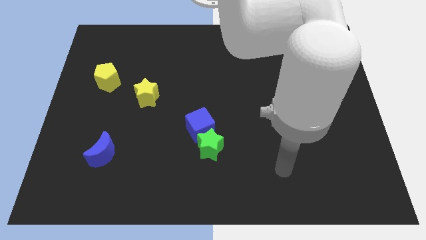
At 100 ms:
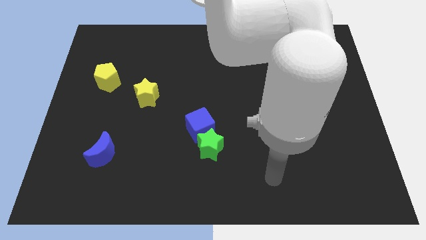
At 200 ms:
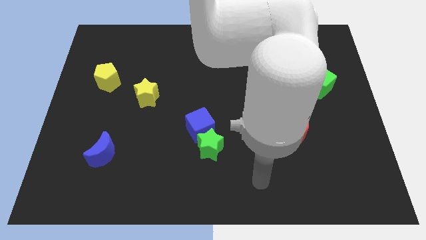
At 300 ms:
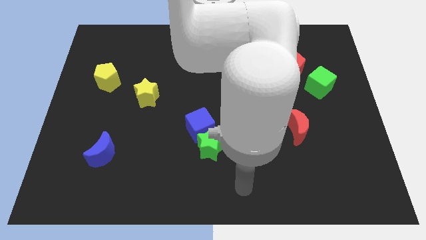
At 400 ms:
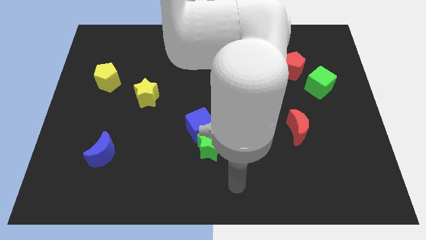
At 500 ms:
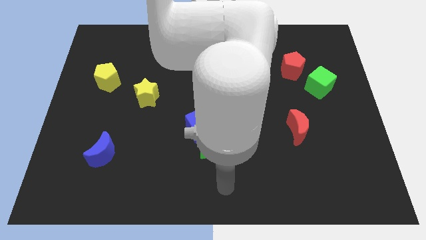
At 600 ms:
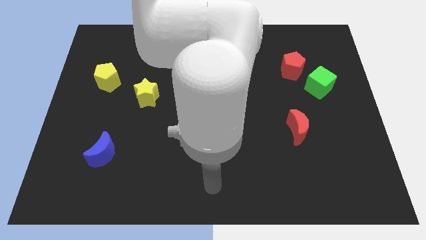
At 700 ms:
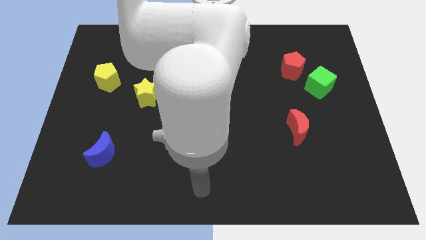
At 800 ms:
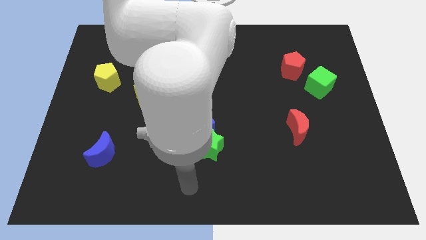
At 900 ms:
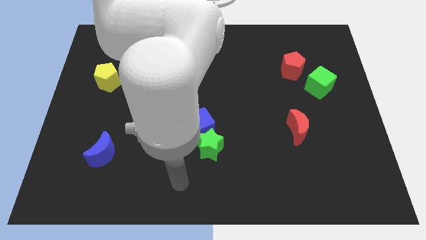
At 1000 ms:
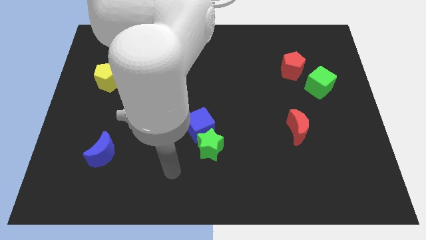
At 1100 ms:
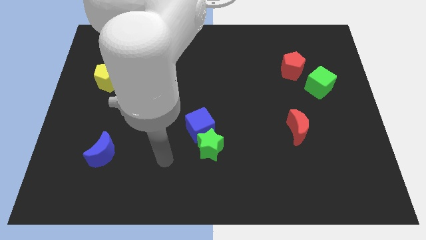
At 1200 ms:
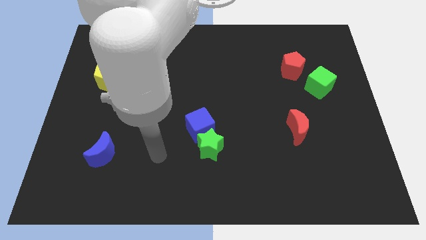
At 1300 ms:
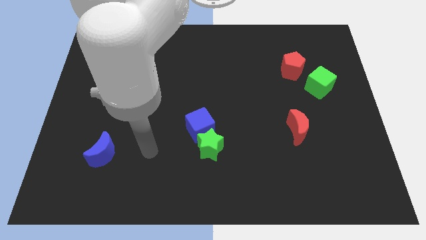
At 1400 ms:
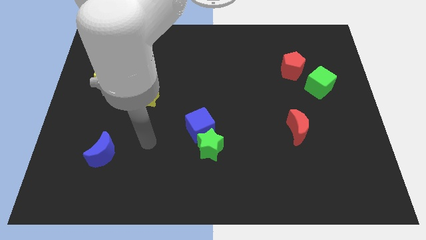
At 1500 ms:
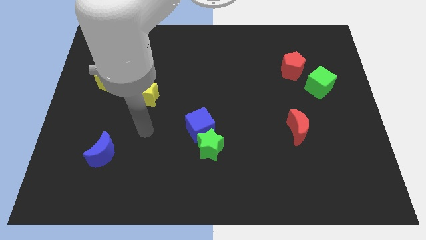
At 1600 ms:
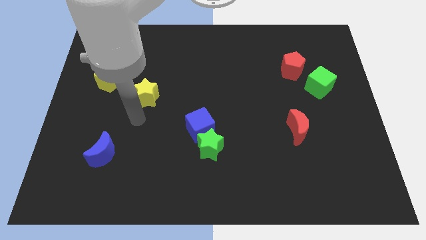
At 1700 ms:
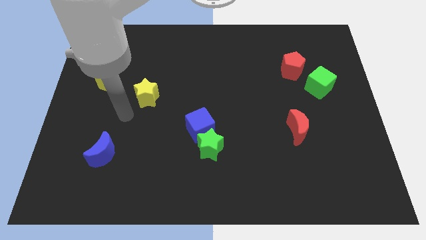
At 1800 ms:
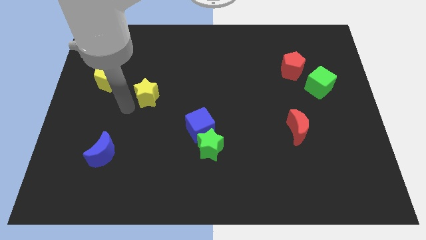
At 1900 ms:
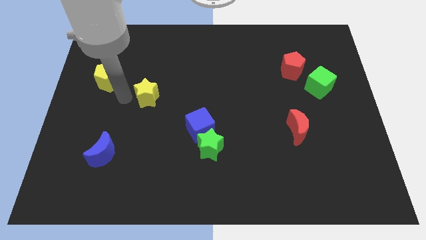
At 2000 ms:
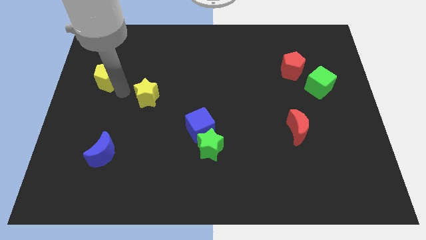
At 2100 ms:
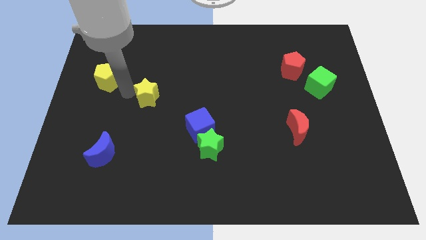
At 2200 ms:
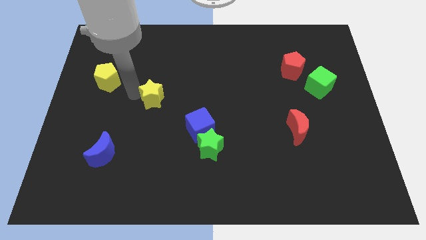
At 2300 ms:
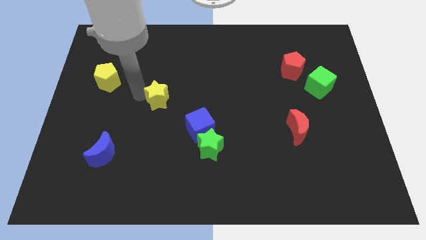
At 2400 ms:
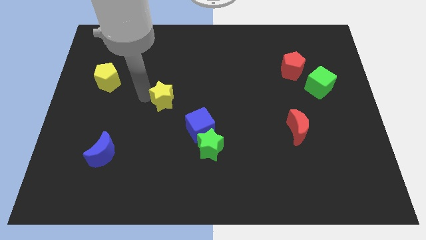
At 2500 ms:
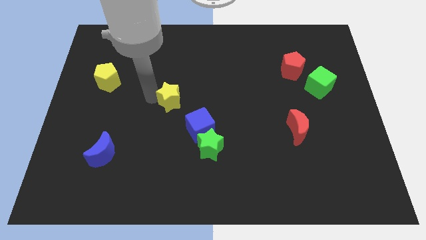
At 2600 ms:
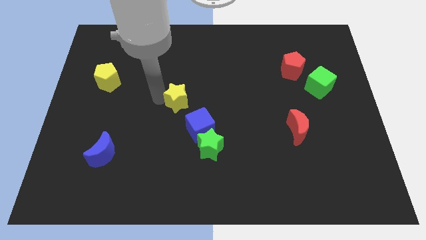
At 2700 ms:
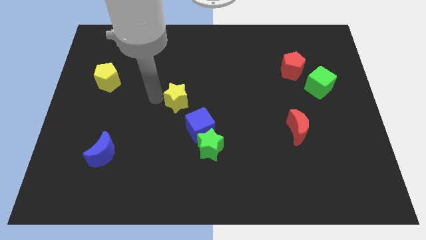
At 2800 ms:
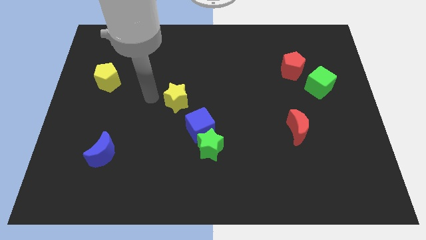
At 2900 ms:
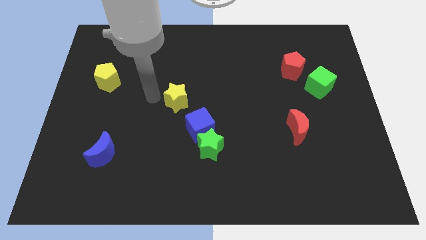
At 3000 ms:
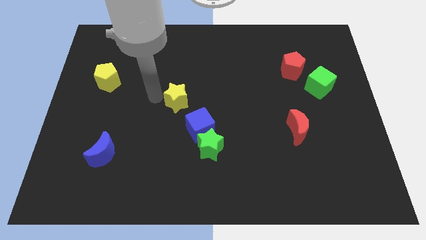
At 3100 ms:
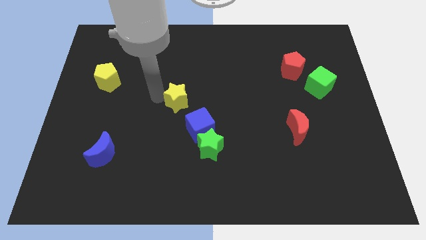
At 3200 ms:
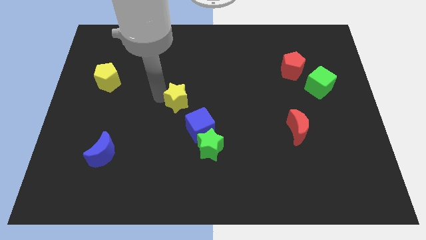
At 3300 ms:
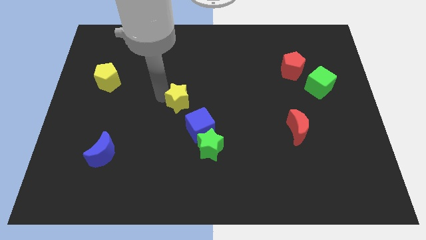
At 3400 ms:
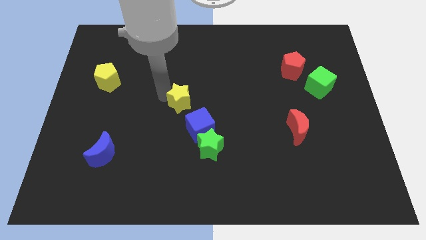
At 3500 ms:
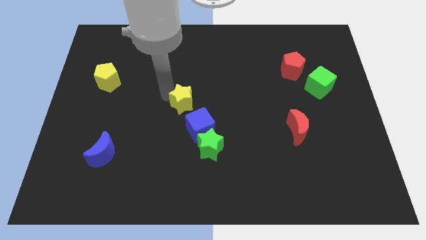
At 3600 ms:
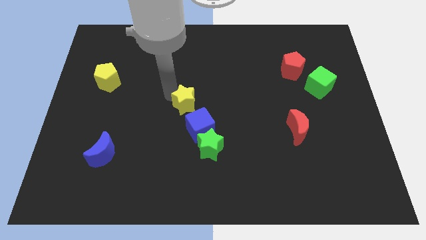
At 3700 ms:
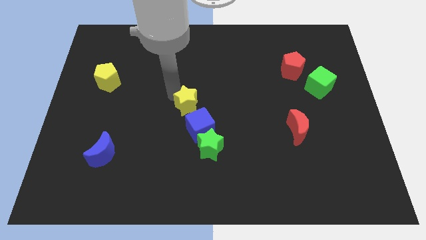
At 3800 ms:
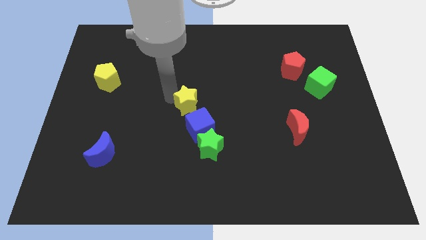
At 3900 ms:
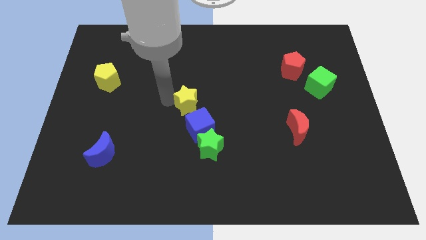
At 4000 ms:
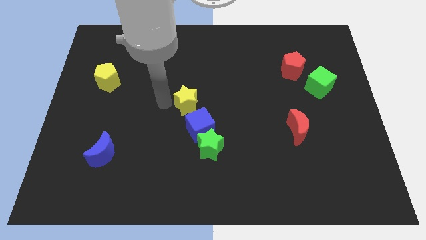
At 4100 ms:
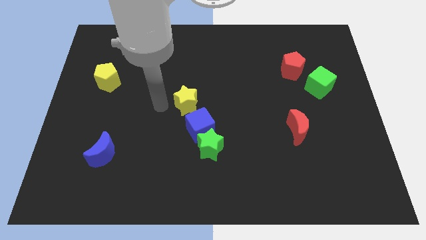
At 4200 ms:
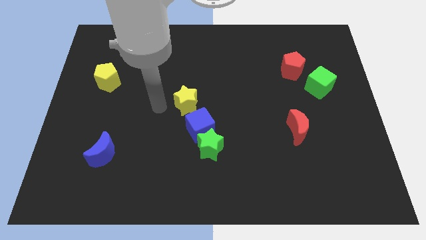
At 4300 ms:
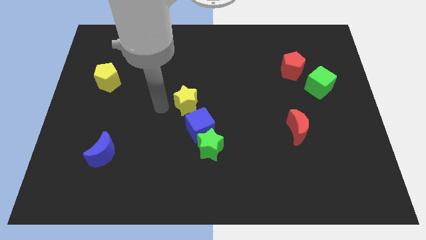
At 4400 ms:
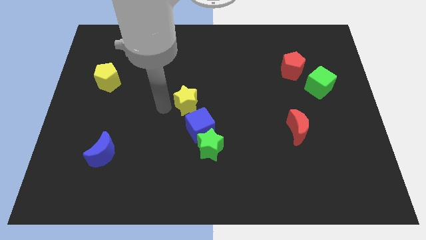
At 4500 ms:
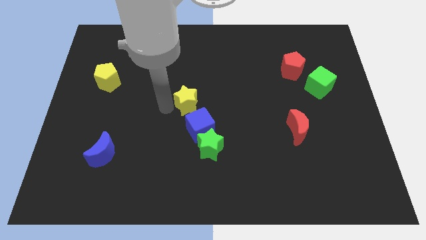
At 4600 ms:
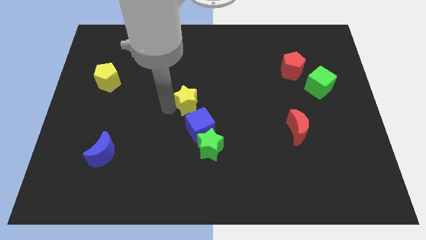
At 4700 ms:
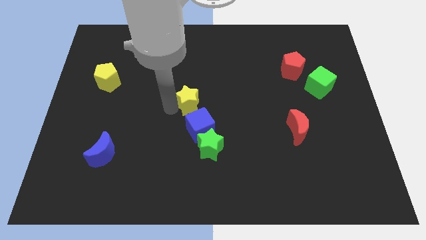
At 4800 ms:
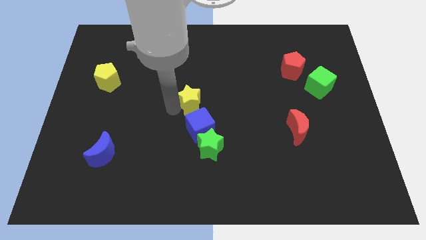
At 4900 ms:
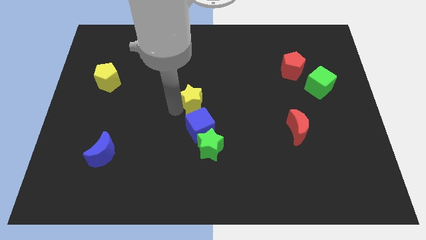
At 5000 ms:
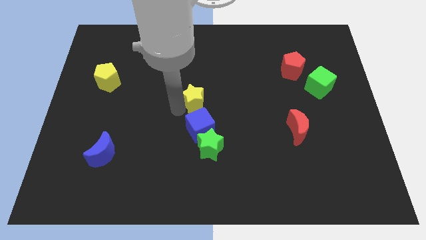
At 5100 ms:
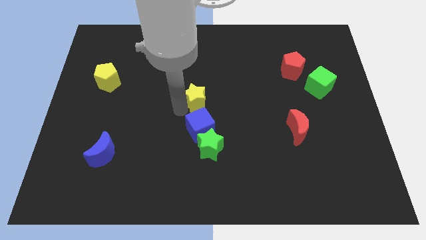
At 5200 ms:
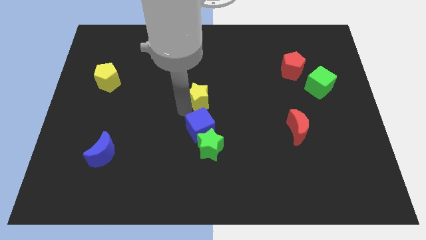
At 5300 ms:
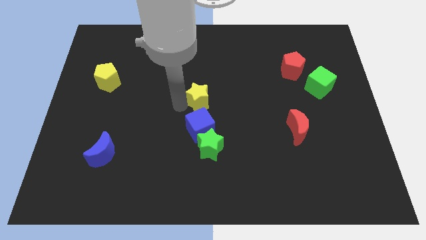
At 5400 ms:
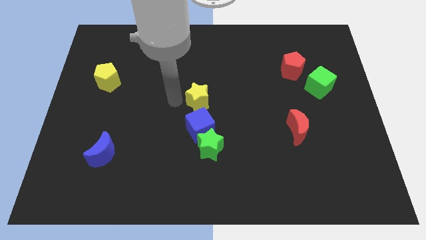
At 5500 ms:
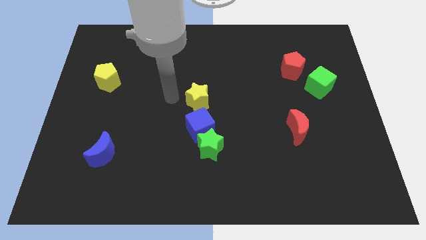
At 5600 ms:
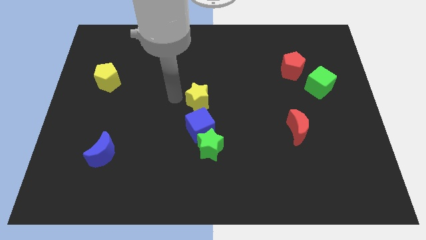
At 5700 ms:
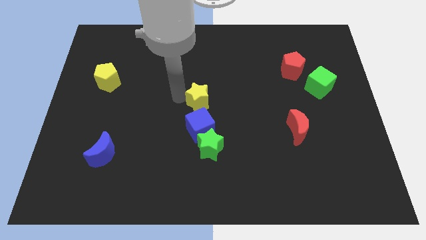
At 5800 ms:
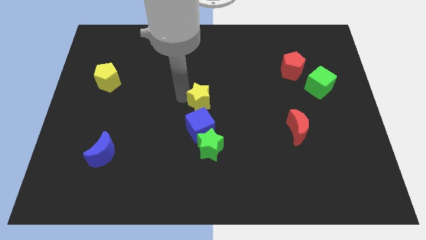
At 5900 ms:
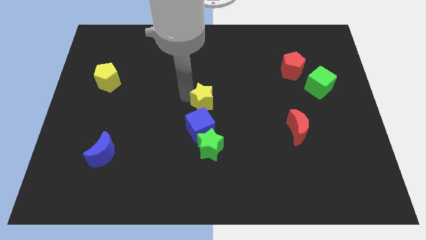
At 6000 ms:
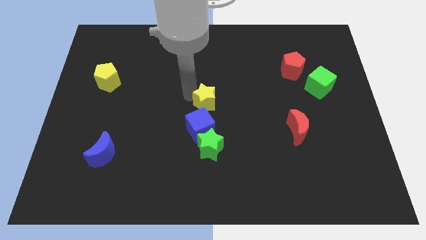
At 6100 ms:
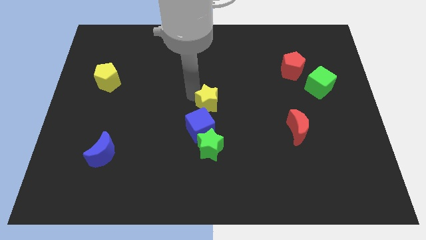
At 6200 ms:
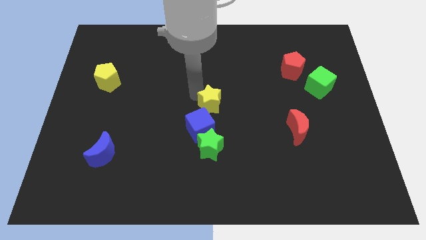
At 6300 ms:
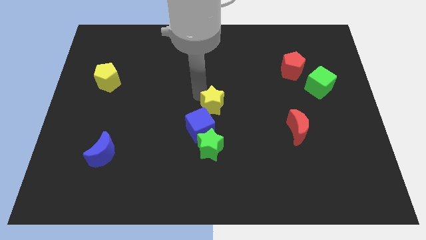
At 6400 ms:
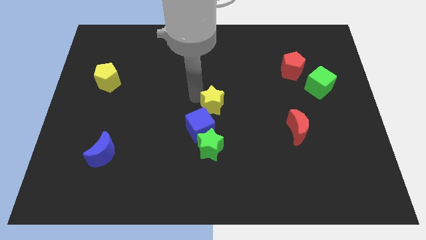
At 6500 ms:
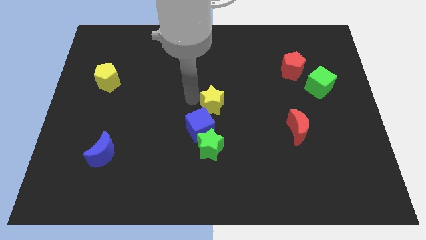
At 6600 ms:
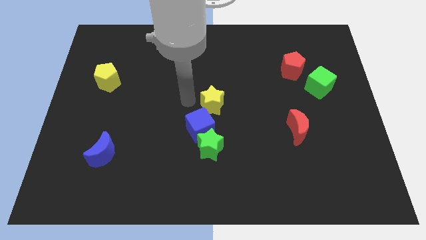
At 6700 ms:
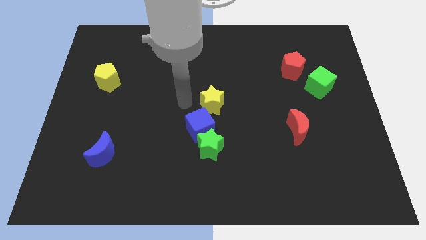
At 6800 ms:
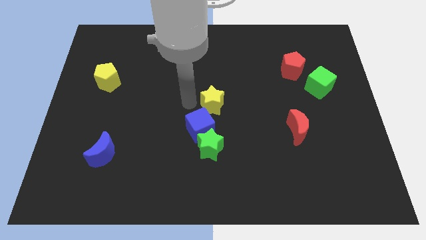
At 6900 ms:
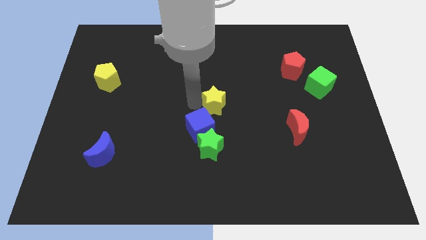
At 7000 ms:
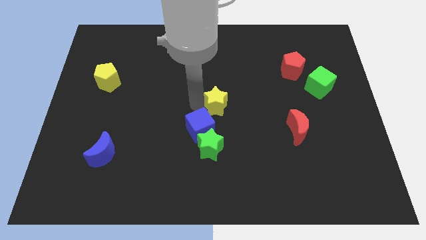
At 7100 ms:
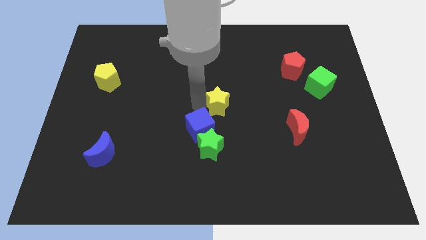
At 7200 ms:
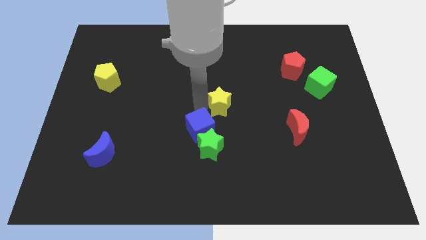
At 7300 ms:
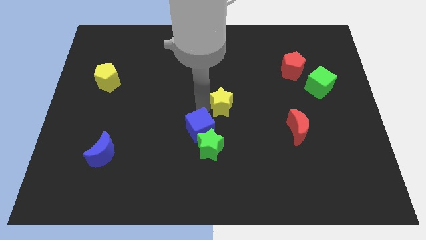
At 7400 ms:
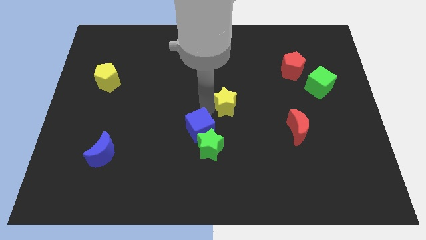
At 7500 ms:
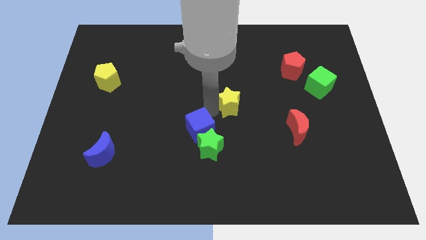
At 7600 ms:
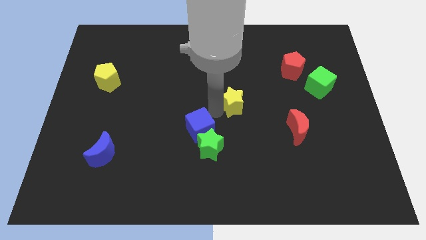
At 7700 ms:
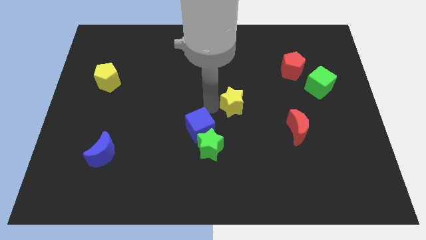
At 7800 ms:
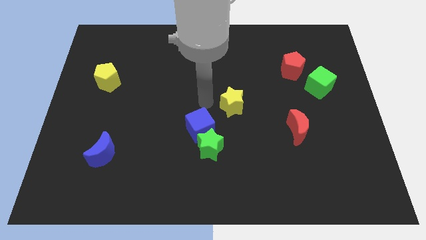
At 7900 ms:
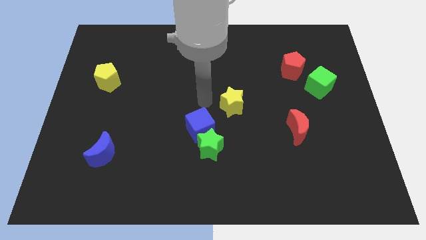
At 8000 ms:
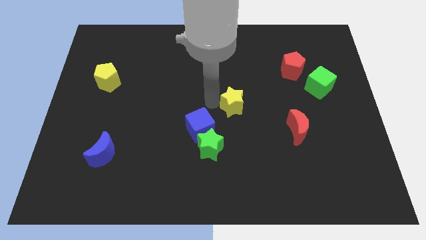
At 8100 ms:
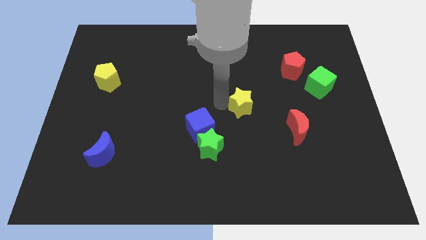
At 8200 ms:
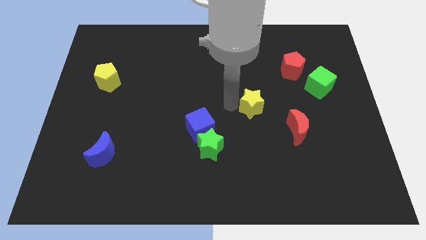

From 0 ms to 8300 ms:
slide the yellow star diagonally up and to the left of the red moon
